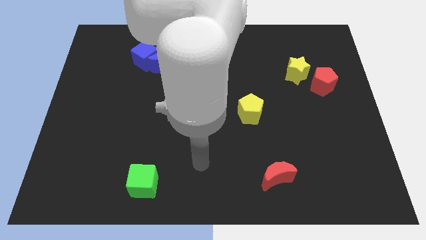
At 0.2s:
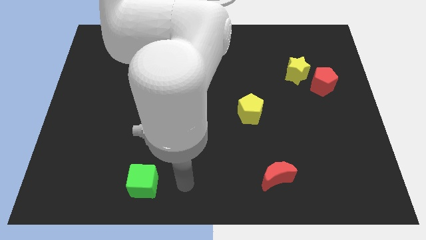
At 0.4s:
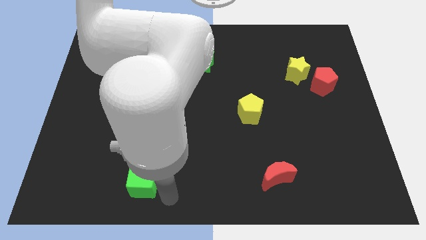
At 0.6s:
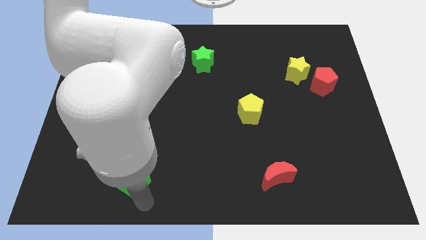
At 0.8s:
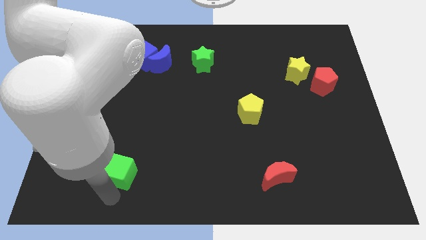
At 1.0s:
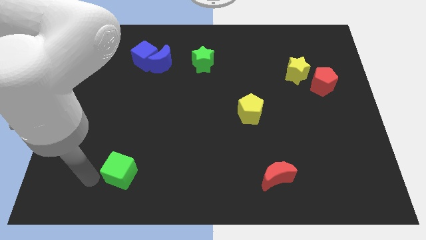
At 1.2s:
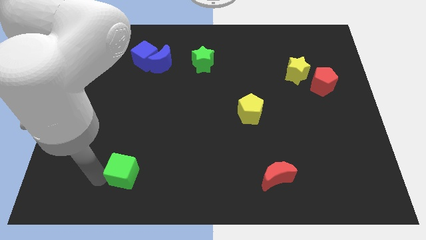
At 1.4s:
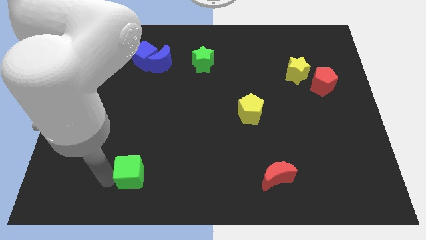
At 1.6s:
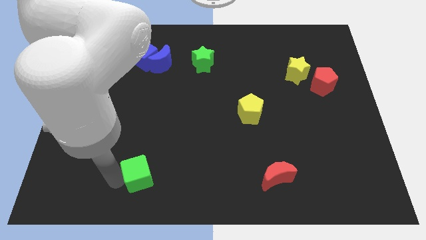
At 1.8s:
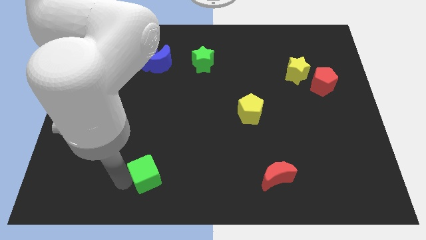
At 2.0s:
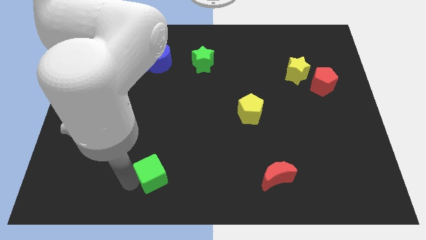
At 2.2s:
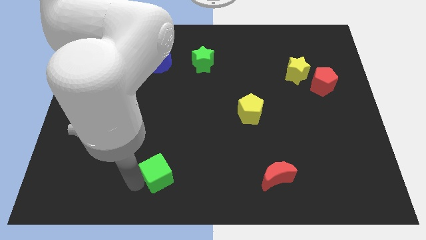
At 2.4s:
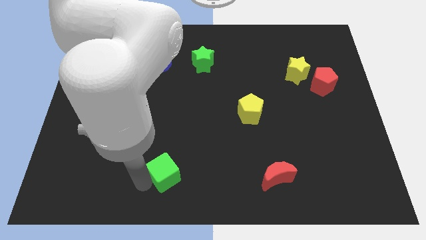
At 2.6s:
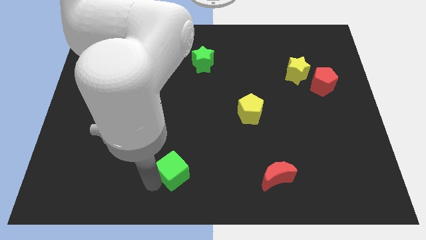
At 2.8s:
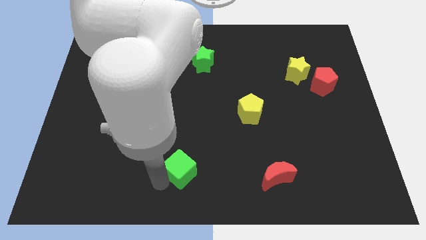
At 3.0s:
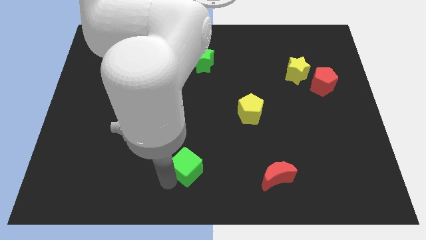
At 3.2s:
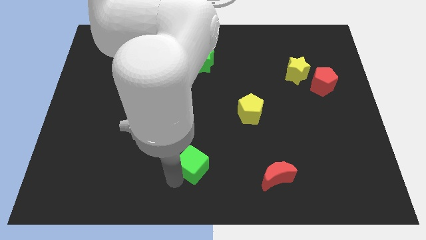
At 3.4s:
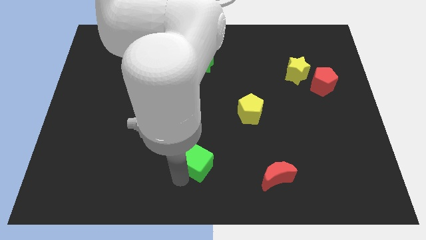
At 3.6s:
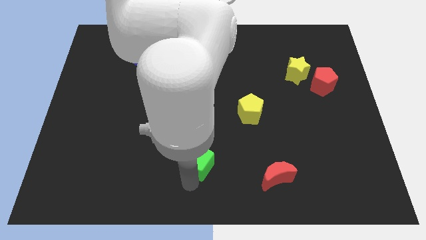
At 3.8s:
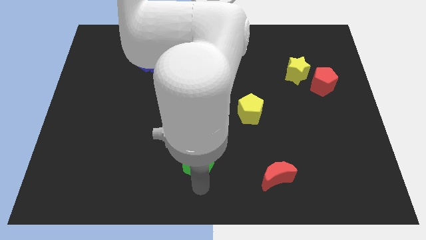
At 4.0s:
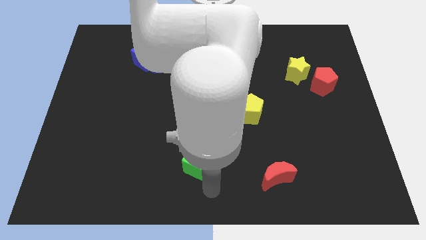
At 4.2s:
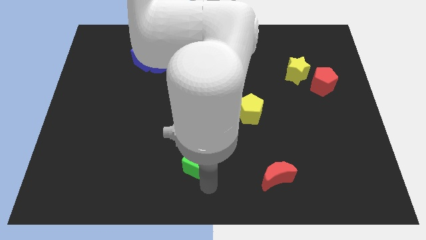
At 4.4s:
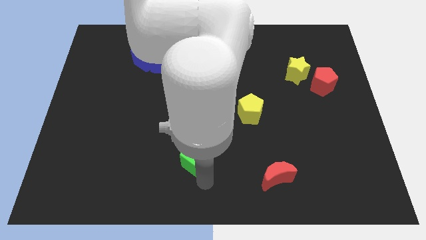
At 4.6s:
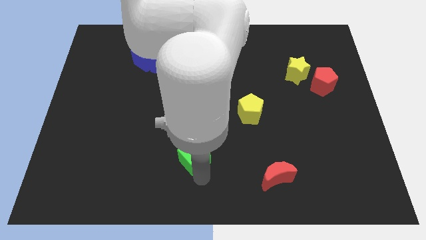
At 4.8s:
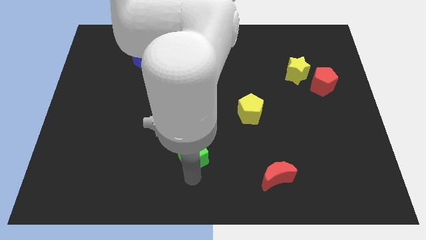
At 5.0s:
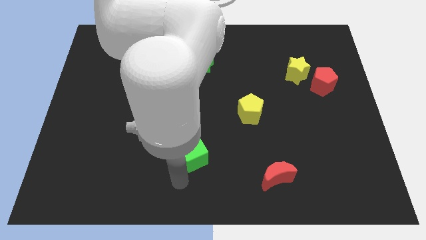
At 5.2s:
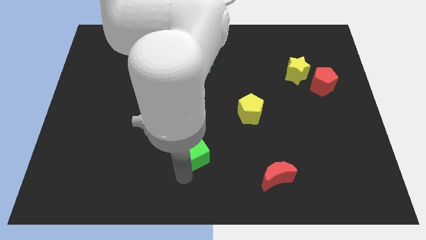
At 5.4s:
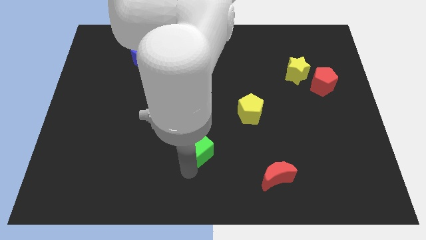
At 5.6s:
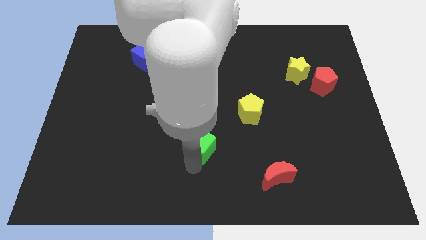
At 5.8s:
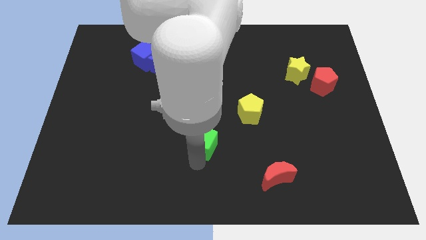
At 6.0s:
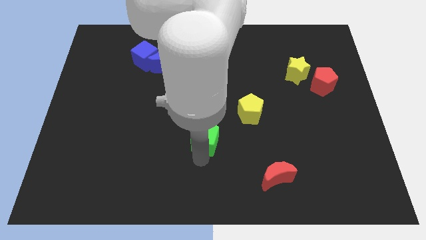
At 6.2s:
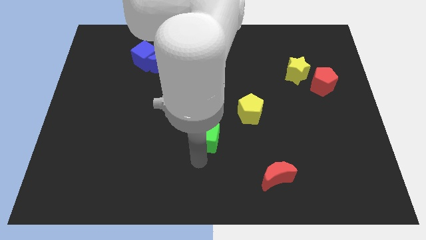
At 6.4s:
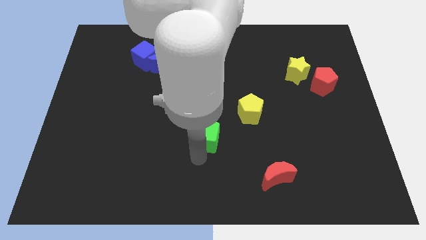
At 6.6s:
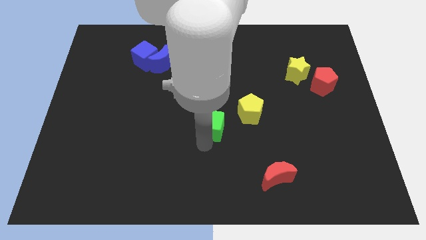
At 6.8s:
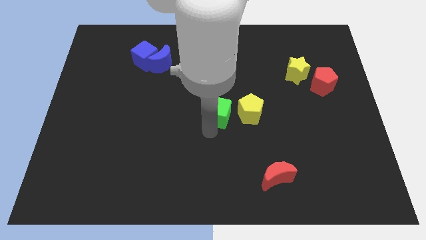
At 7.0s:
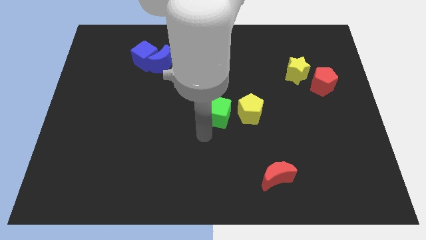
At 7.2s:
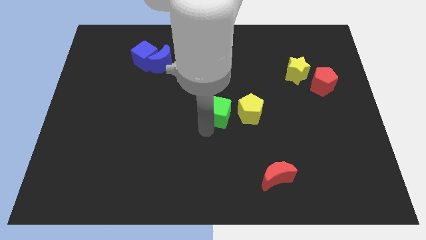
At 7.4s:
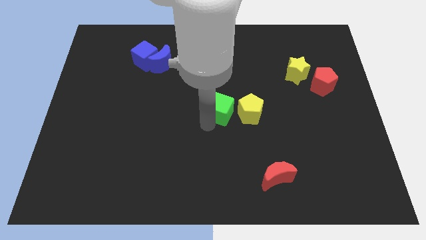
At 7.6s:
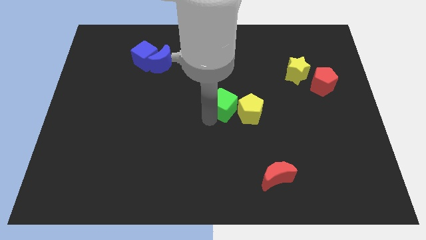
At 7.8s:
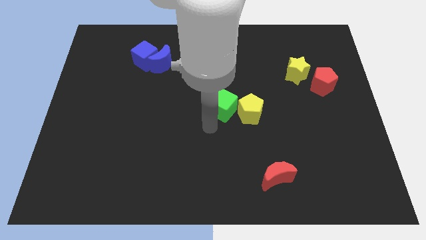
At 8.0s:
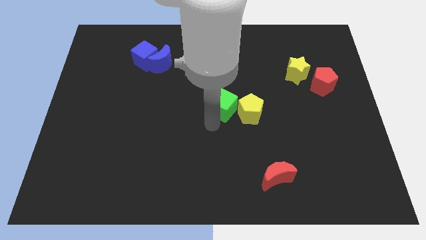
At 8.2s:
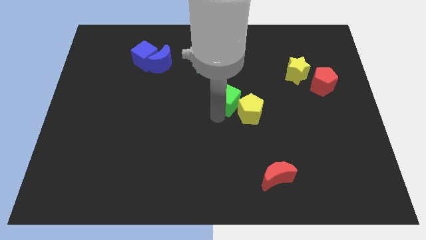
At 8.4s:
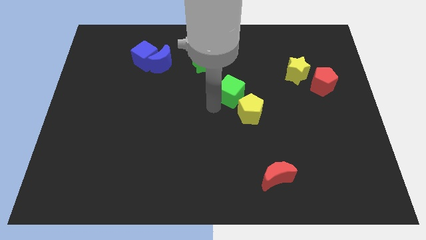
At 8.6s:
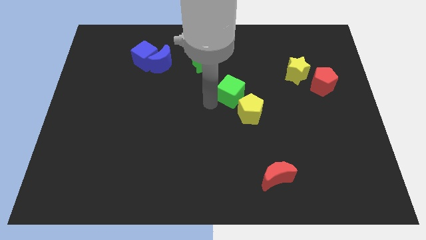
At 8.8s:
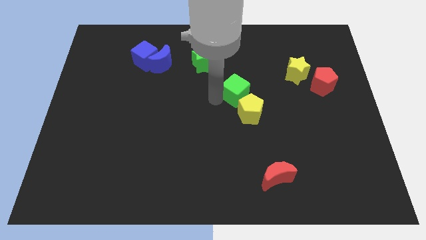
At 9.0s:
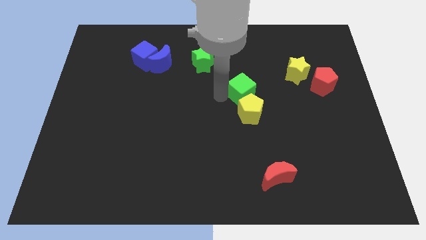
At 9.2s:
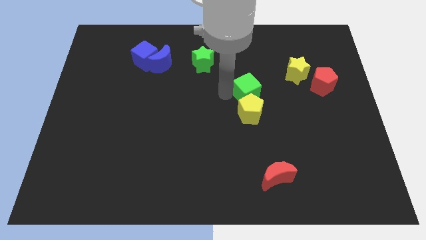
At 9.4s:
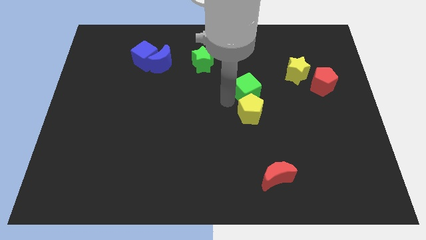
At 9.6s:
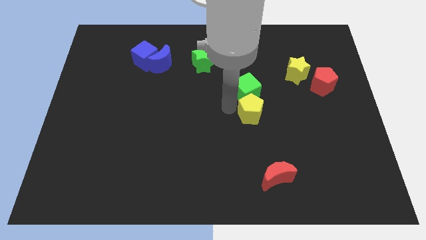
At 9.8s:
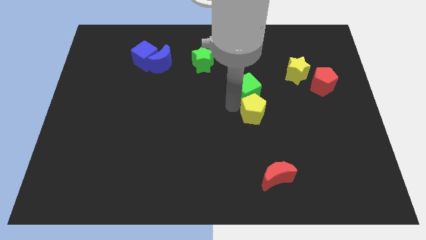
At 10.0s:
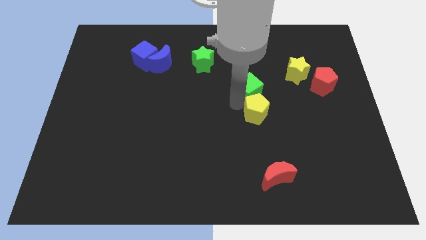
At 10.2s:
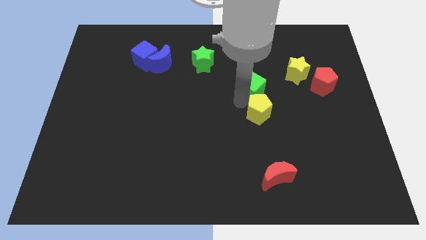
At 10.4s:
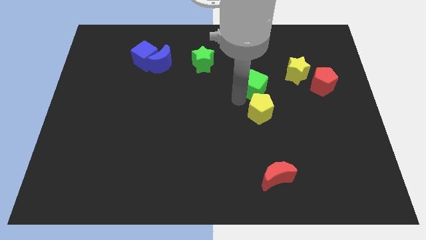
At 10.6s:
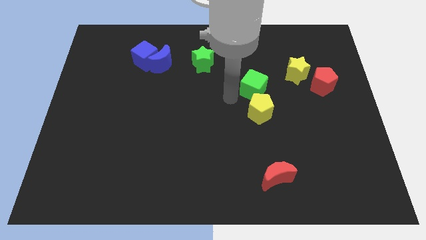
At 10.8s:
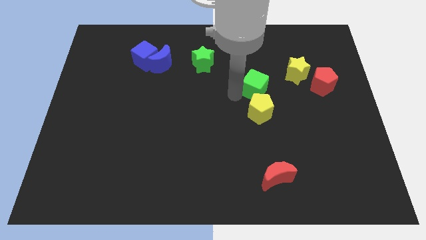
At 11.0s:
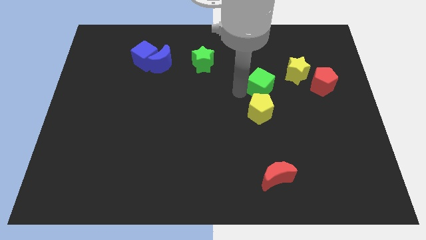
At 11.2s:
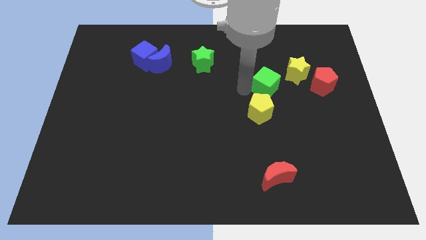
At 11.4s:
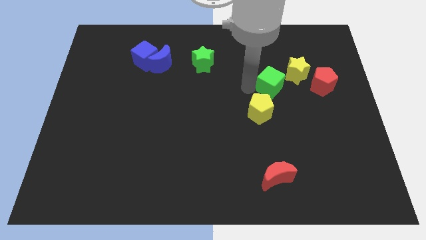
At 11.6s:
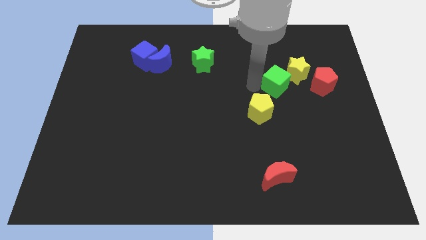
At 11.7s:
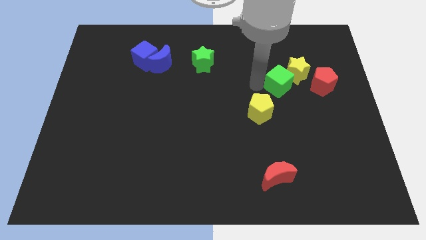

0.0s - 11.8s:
put the green cube to the yellow star

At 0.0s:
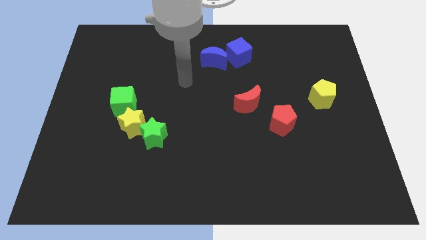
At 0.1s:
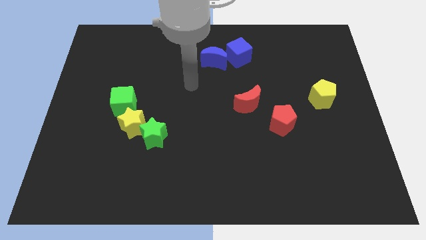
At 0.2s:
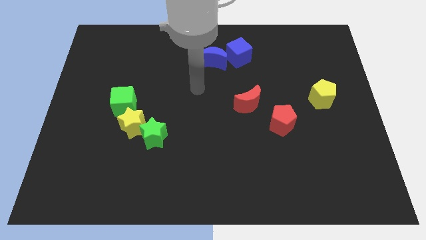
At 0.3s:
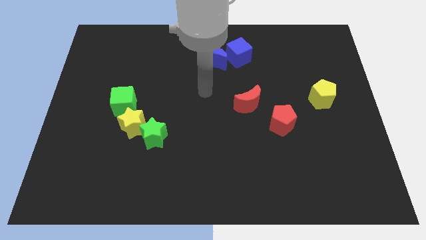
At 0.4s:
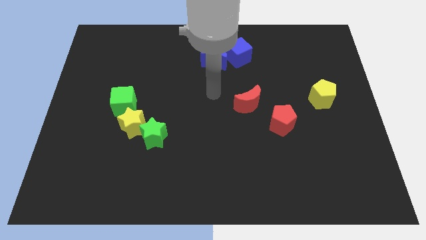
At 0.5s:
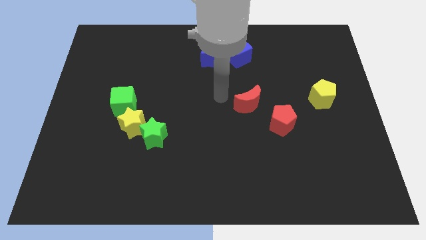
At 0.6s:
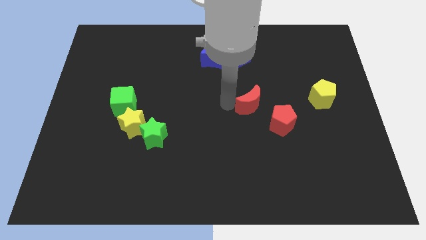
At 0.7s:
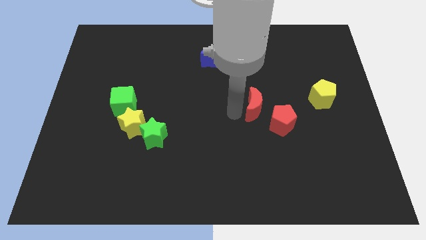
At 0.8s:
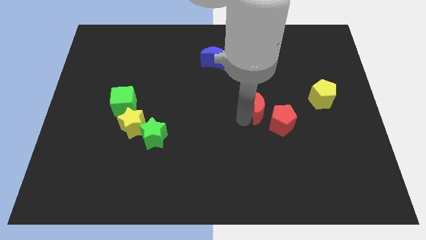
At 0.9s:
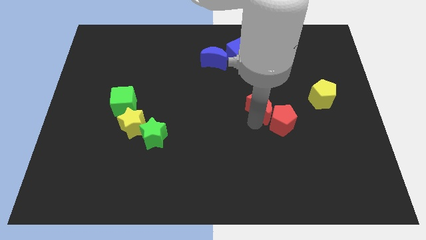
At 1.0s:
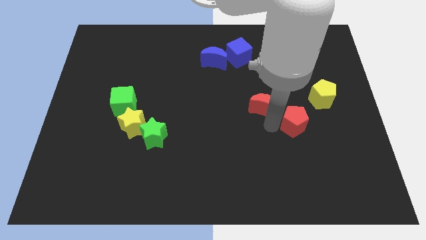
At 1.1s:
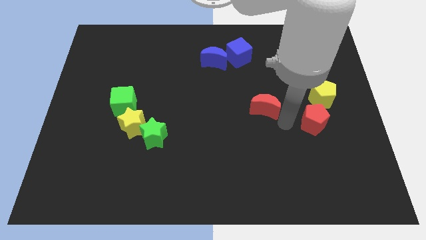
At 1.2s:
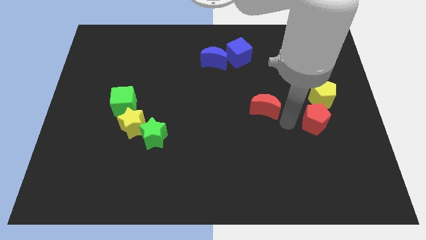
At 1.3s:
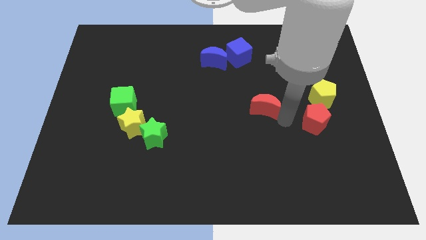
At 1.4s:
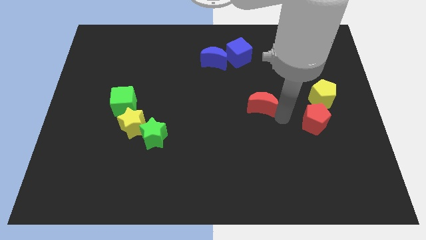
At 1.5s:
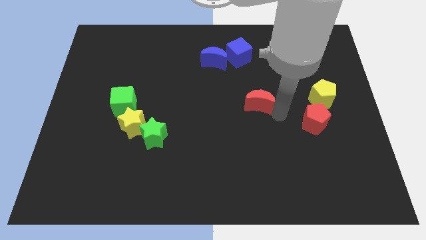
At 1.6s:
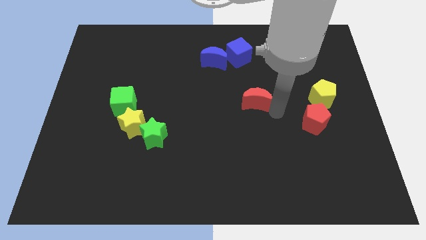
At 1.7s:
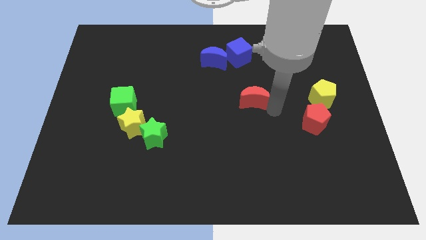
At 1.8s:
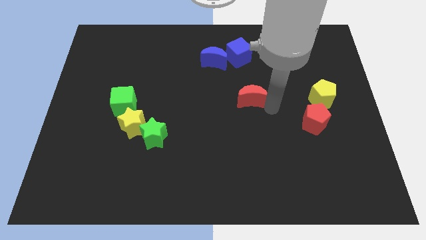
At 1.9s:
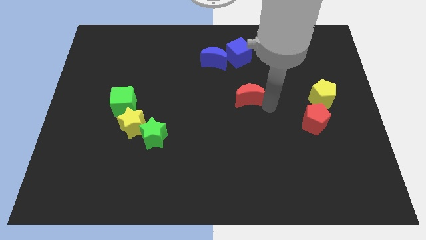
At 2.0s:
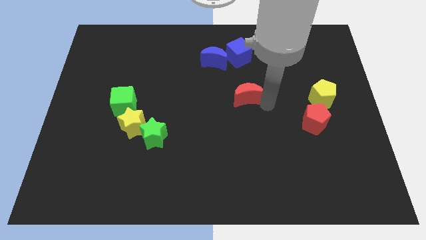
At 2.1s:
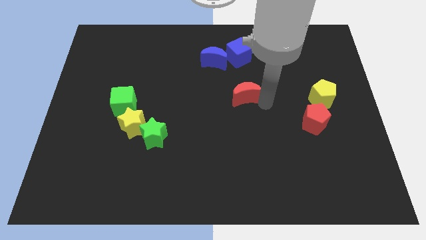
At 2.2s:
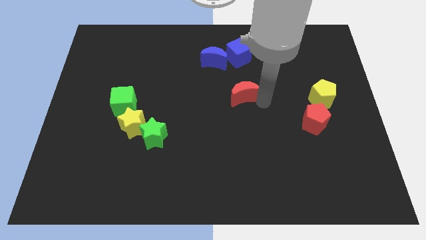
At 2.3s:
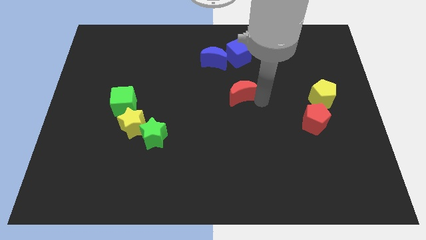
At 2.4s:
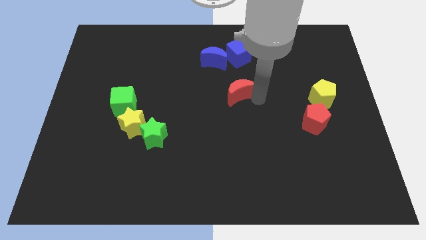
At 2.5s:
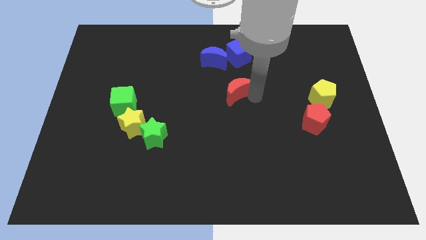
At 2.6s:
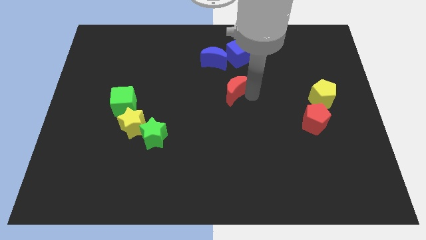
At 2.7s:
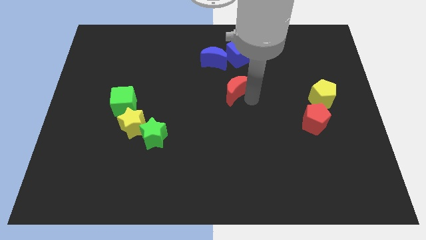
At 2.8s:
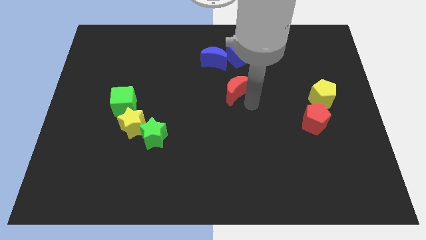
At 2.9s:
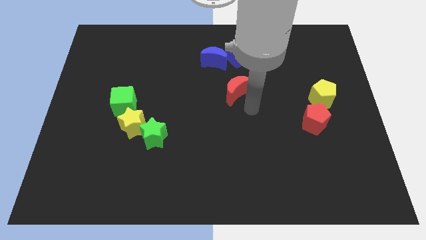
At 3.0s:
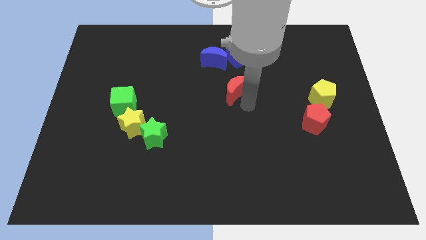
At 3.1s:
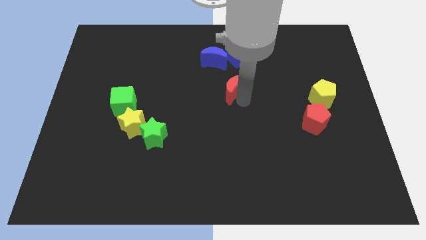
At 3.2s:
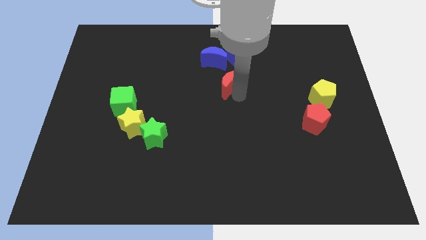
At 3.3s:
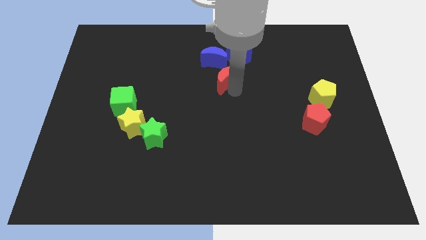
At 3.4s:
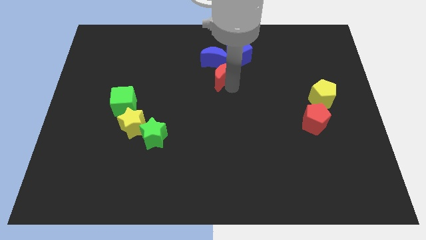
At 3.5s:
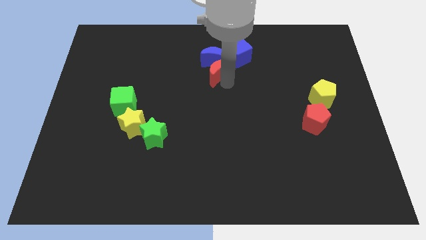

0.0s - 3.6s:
put the red moon next to the blue moon
